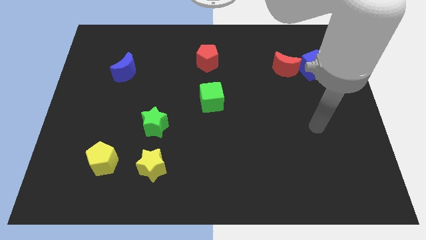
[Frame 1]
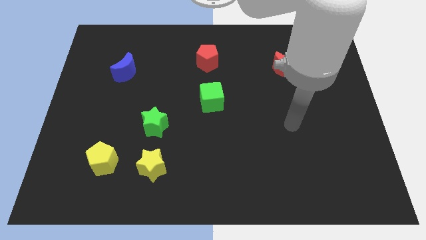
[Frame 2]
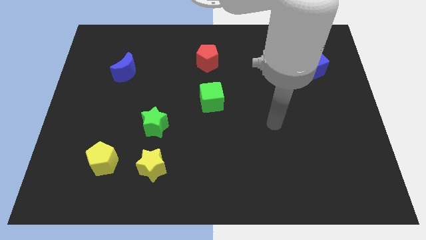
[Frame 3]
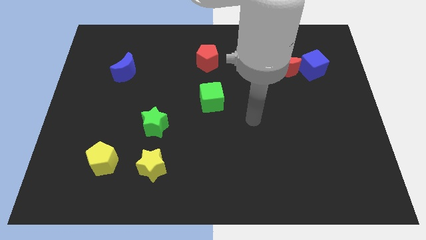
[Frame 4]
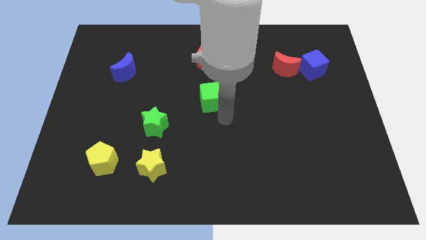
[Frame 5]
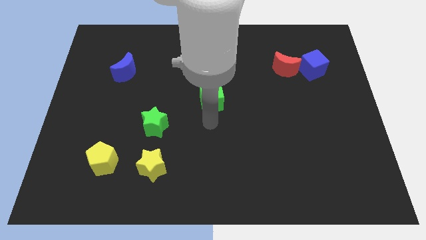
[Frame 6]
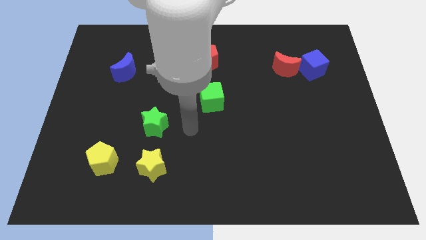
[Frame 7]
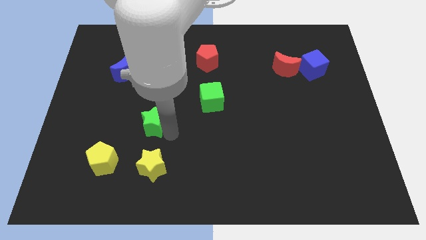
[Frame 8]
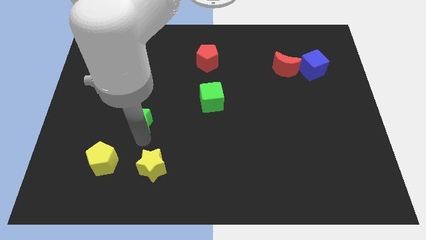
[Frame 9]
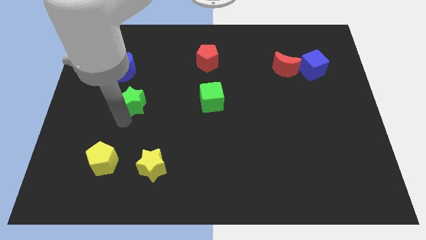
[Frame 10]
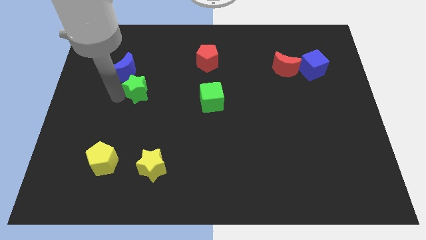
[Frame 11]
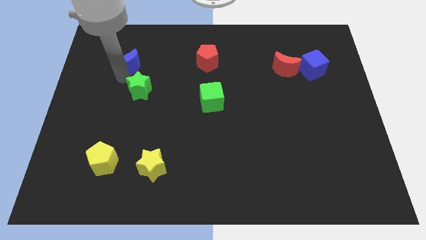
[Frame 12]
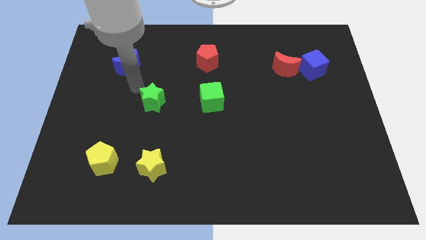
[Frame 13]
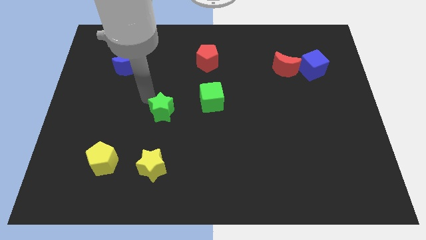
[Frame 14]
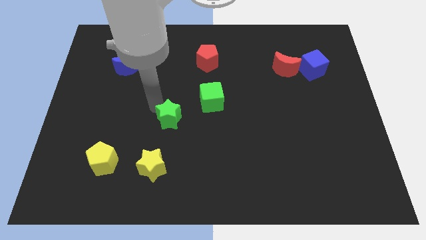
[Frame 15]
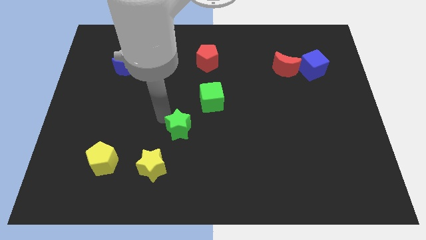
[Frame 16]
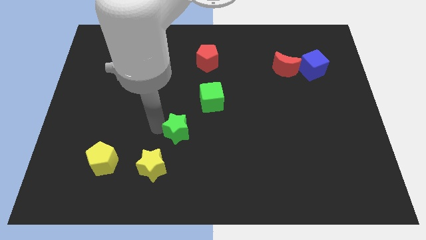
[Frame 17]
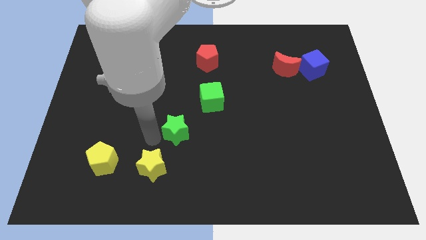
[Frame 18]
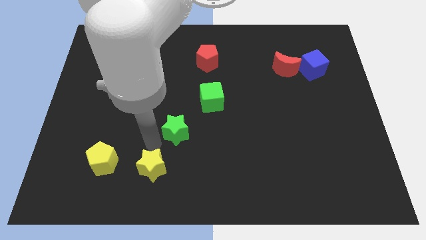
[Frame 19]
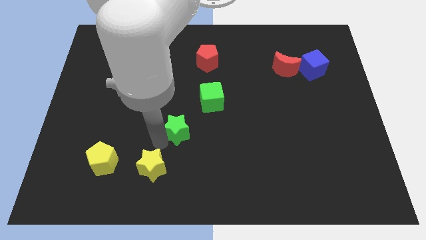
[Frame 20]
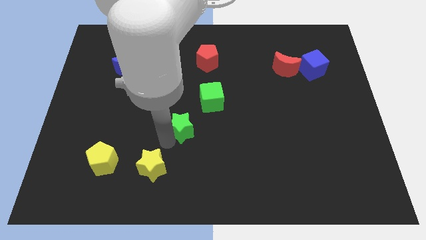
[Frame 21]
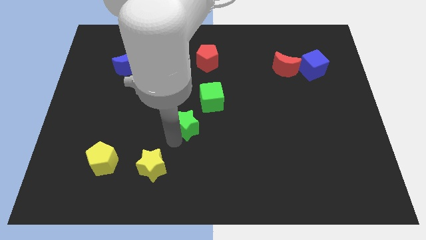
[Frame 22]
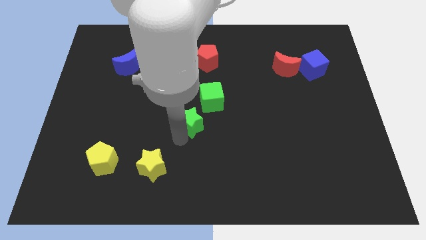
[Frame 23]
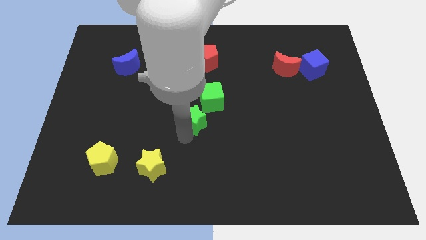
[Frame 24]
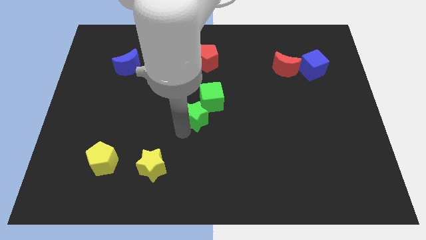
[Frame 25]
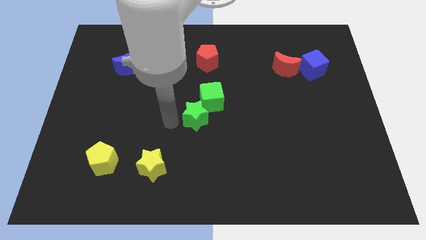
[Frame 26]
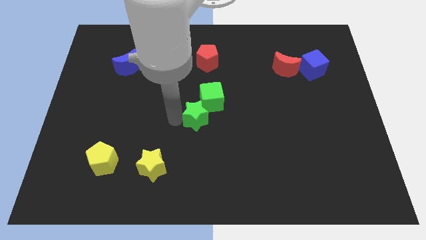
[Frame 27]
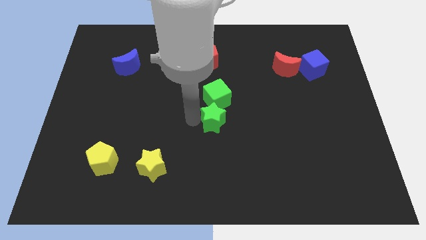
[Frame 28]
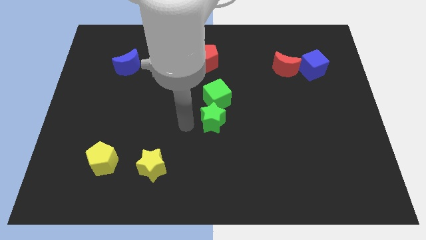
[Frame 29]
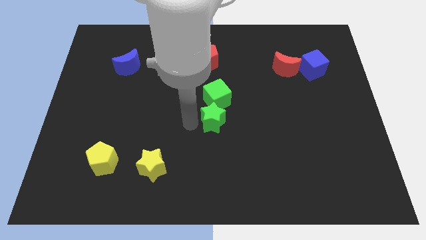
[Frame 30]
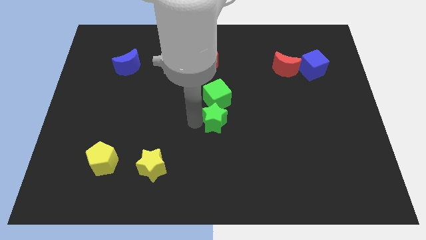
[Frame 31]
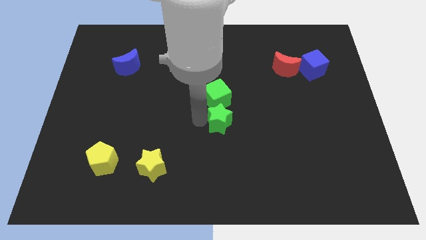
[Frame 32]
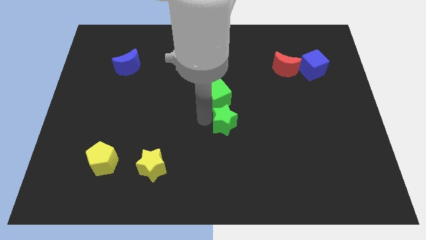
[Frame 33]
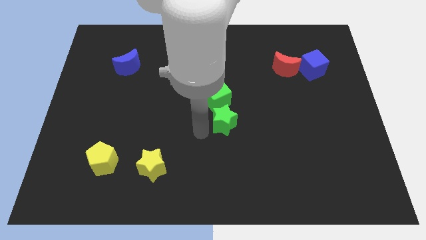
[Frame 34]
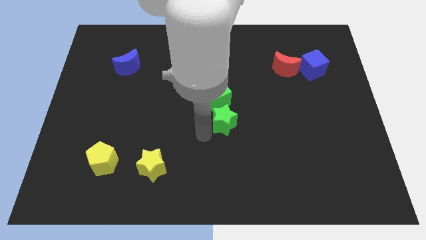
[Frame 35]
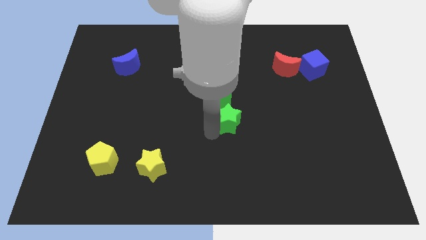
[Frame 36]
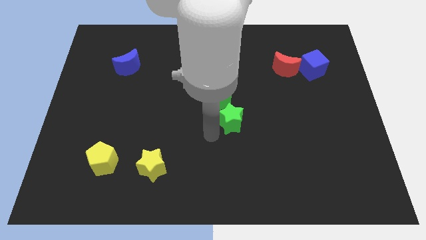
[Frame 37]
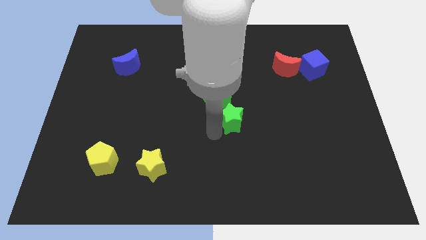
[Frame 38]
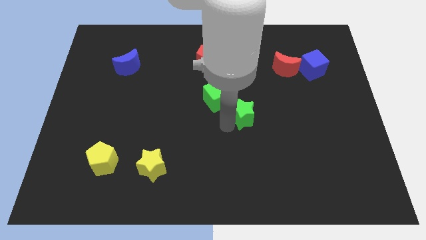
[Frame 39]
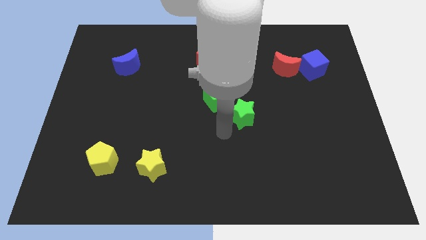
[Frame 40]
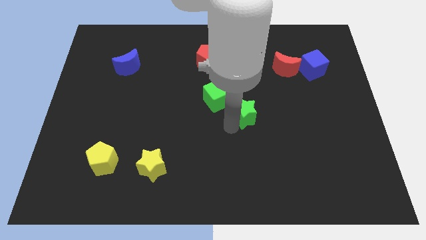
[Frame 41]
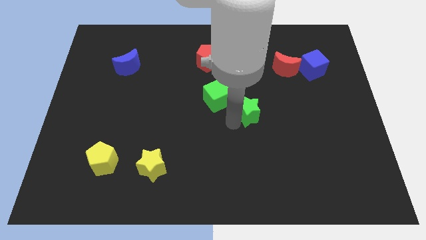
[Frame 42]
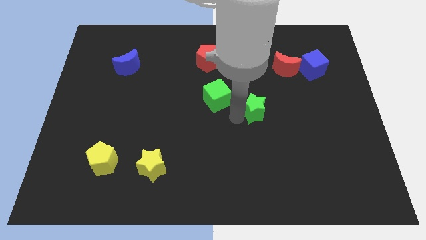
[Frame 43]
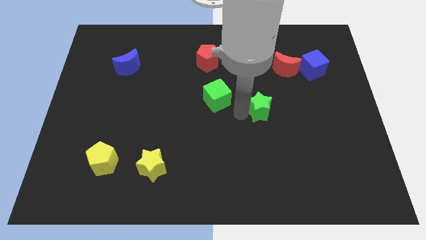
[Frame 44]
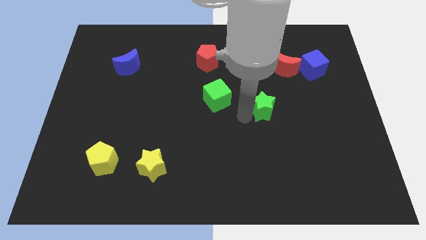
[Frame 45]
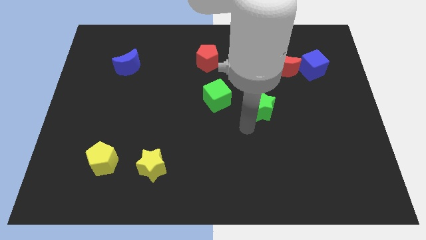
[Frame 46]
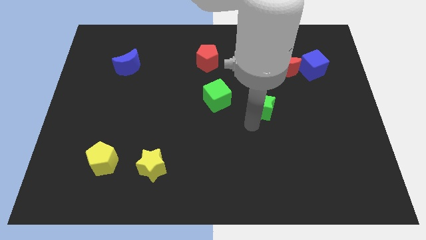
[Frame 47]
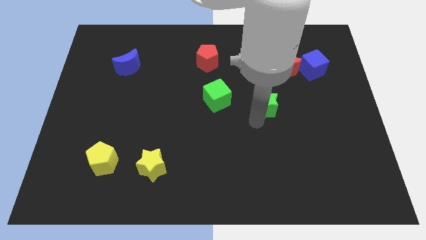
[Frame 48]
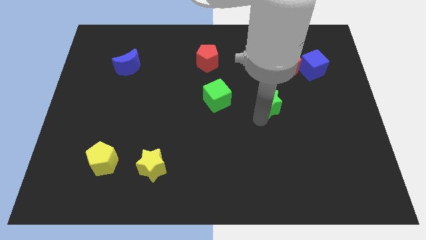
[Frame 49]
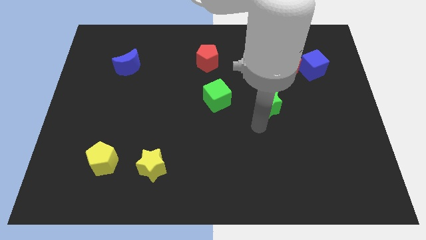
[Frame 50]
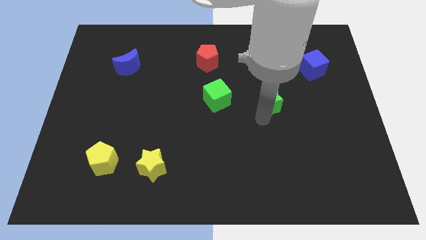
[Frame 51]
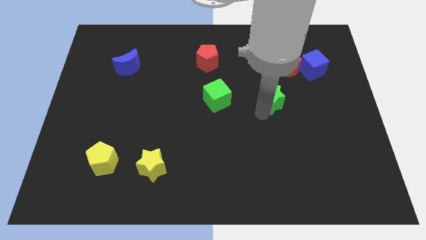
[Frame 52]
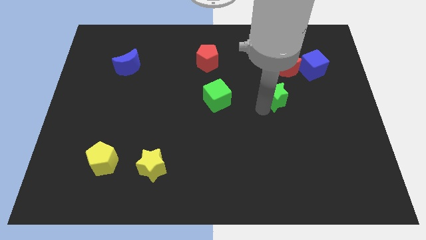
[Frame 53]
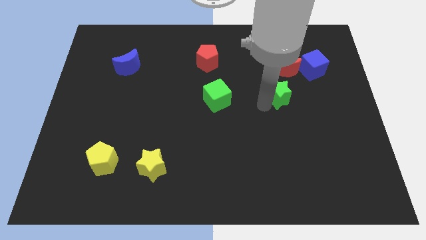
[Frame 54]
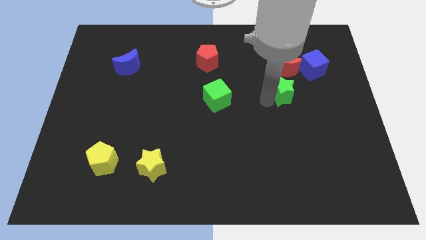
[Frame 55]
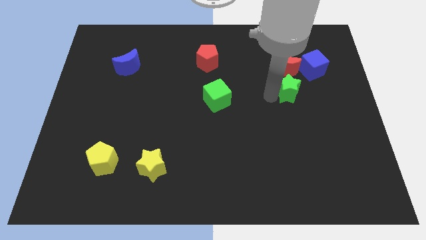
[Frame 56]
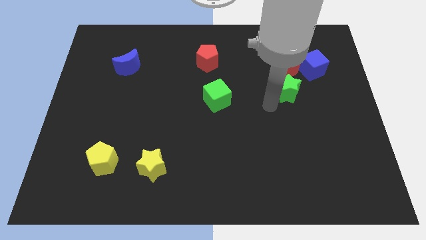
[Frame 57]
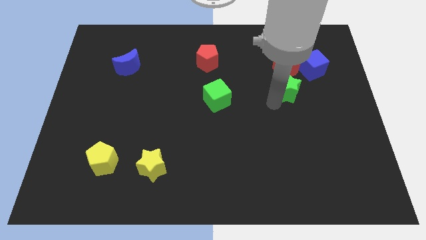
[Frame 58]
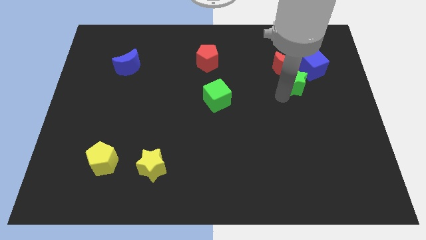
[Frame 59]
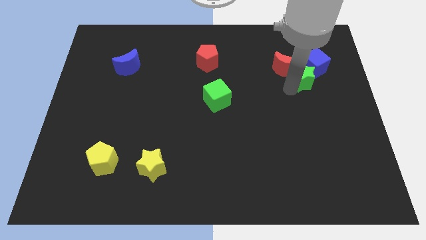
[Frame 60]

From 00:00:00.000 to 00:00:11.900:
slide the green star to the blue cube

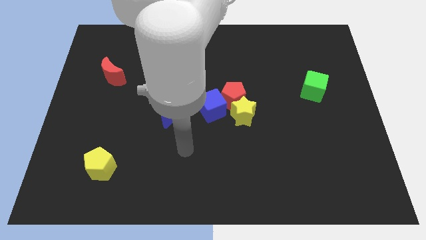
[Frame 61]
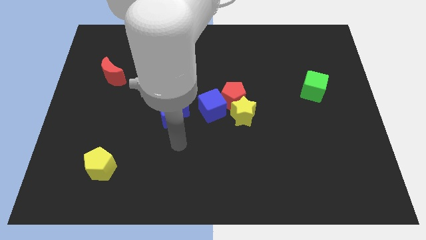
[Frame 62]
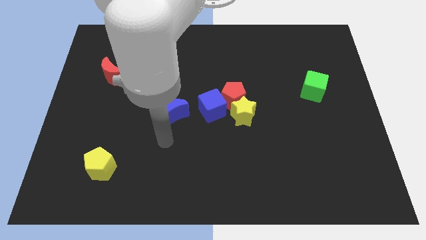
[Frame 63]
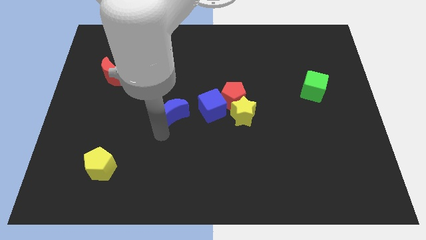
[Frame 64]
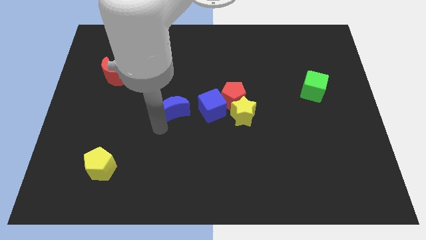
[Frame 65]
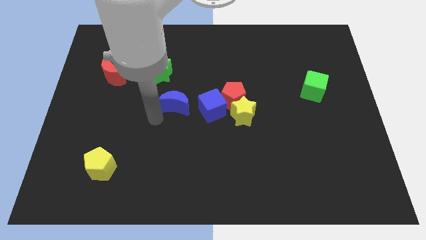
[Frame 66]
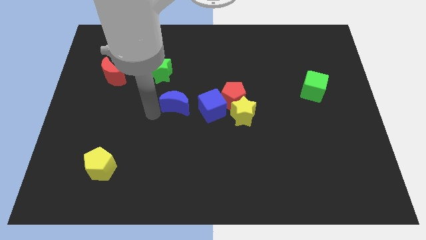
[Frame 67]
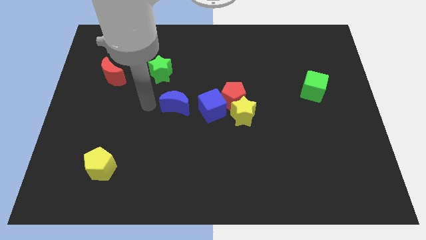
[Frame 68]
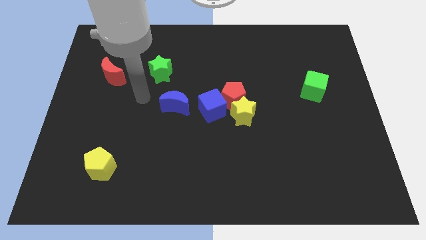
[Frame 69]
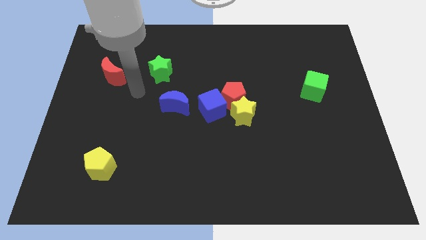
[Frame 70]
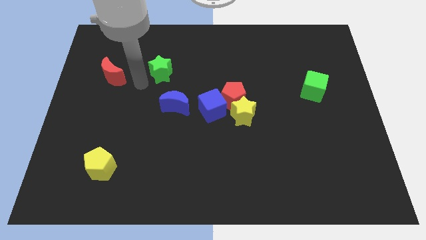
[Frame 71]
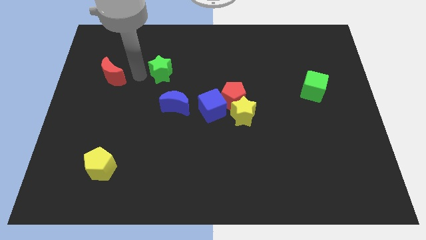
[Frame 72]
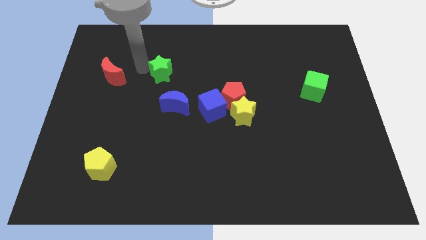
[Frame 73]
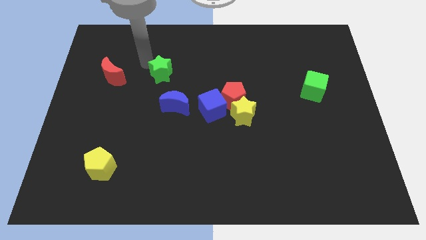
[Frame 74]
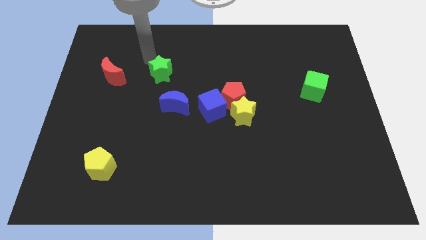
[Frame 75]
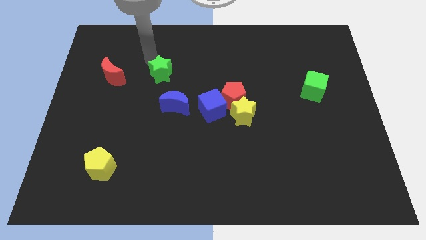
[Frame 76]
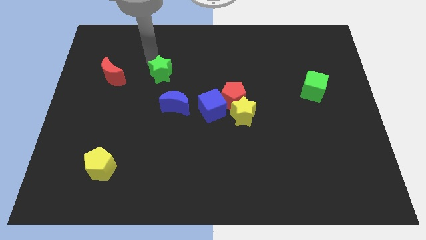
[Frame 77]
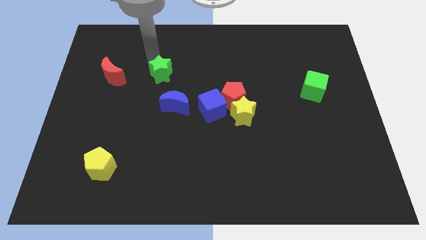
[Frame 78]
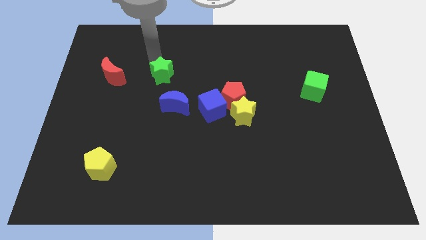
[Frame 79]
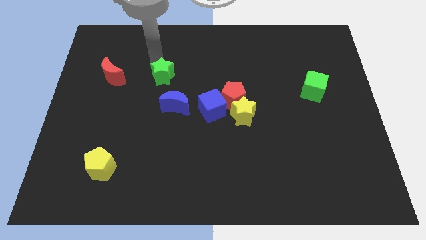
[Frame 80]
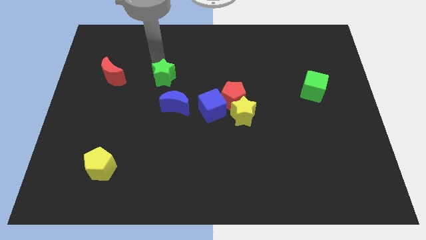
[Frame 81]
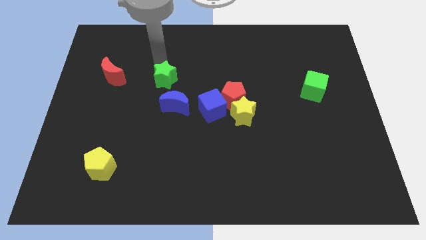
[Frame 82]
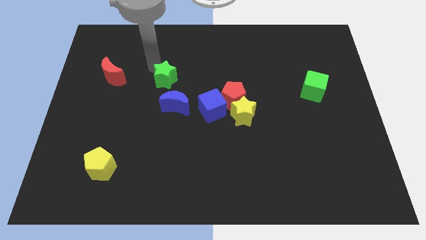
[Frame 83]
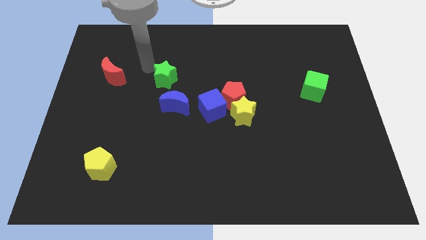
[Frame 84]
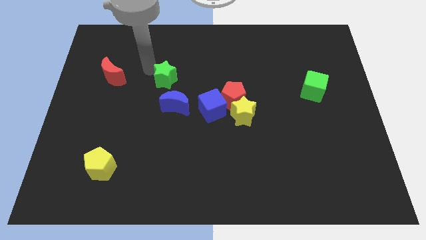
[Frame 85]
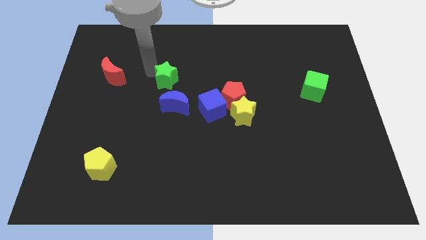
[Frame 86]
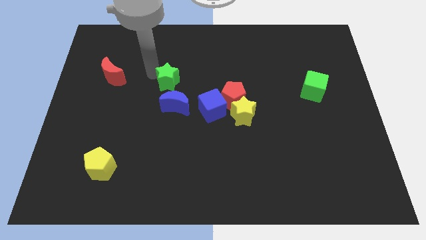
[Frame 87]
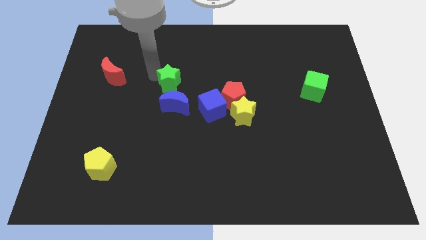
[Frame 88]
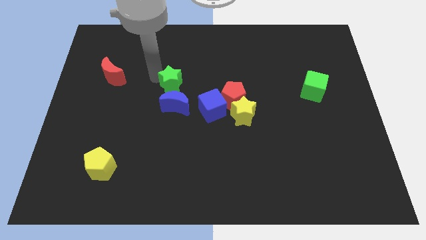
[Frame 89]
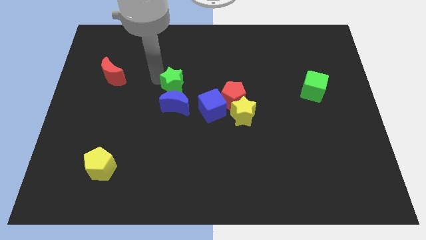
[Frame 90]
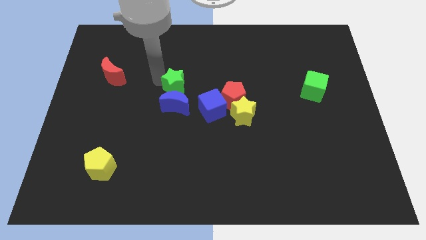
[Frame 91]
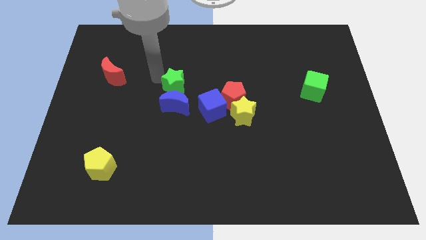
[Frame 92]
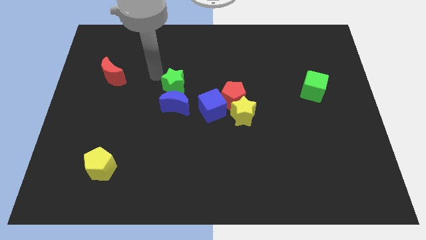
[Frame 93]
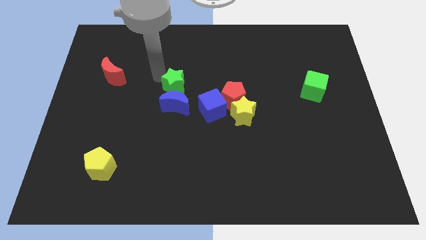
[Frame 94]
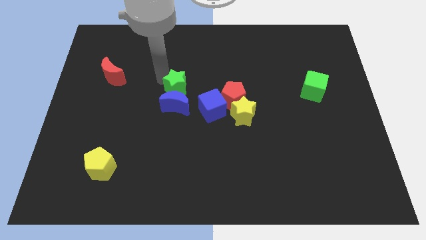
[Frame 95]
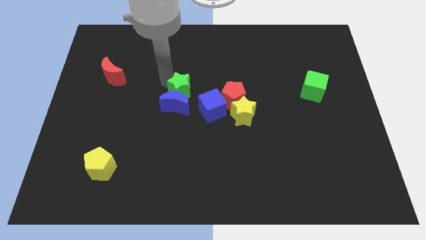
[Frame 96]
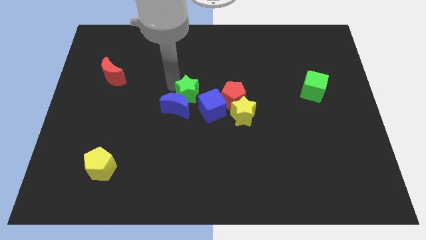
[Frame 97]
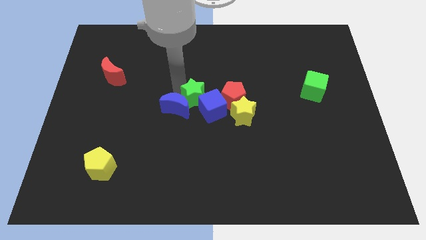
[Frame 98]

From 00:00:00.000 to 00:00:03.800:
move the green star towards the blue cube
